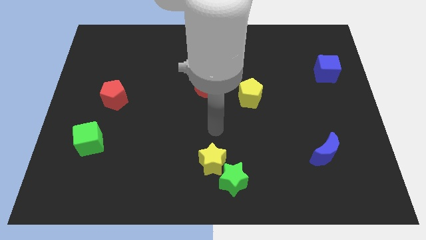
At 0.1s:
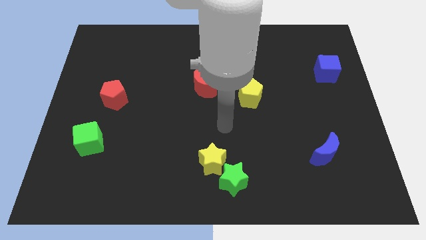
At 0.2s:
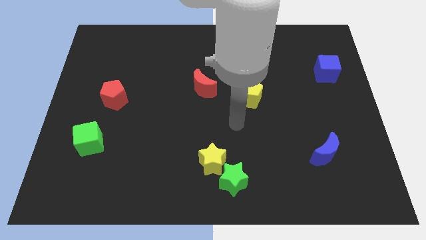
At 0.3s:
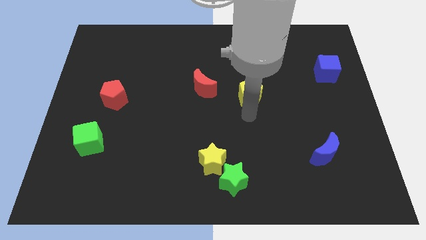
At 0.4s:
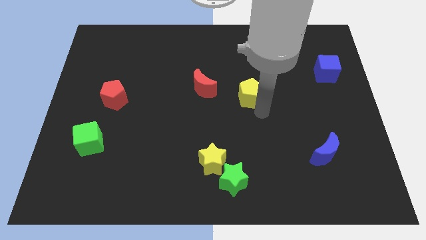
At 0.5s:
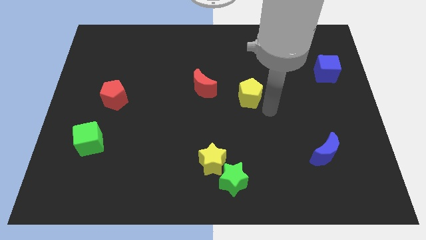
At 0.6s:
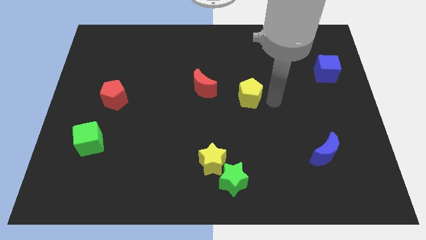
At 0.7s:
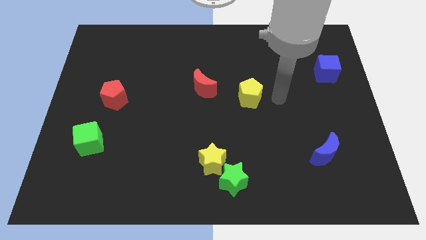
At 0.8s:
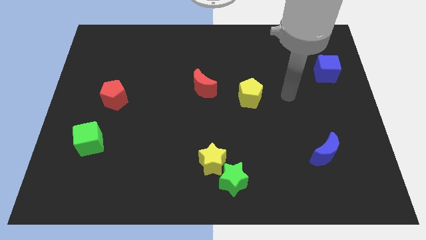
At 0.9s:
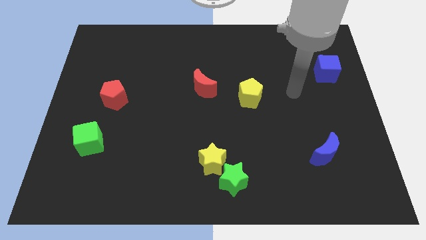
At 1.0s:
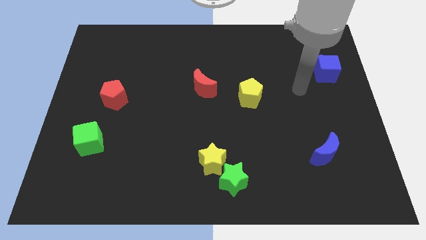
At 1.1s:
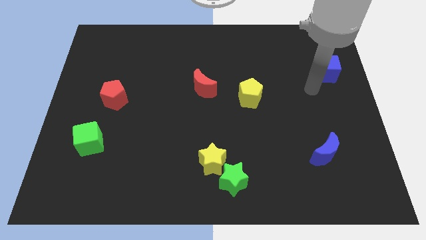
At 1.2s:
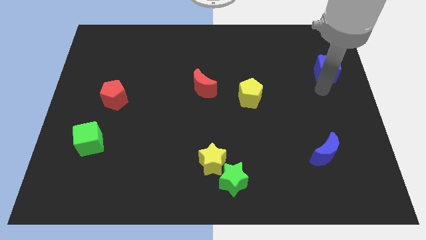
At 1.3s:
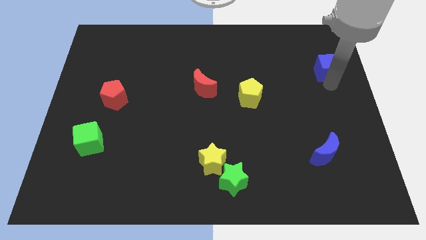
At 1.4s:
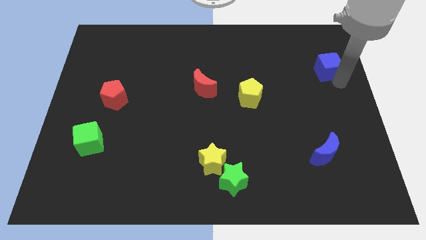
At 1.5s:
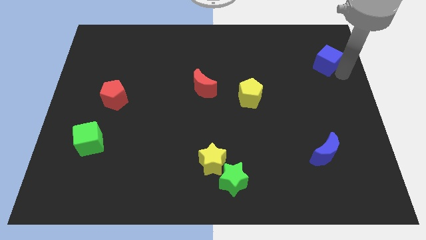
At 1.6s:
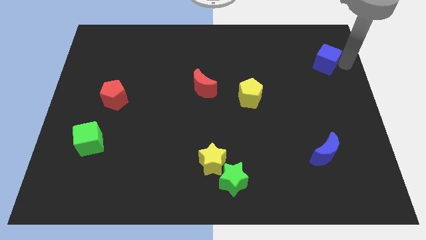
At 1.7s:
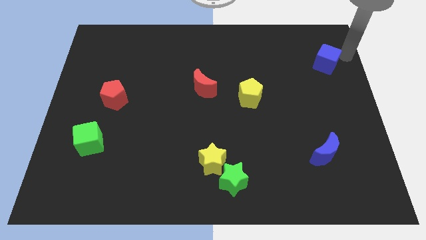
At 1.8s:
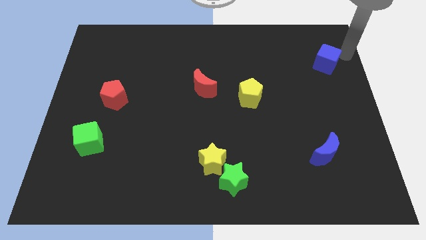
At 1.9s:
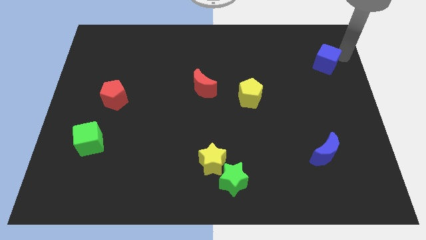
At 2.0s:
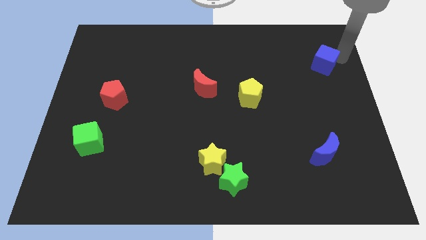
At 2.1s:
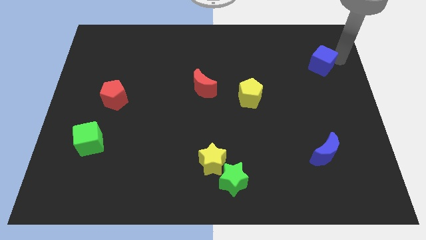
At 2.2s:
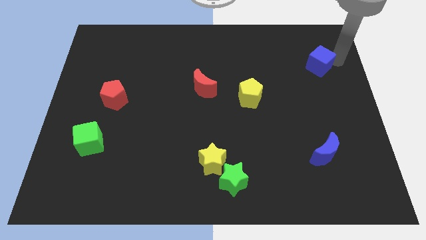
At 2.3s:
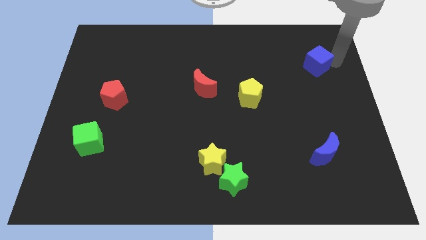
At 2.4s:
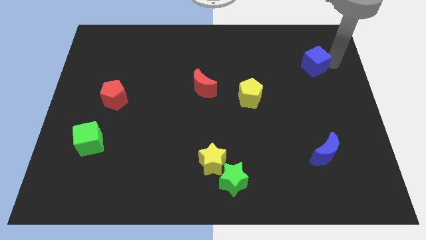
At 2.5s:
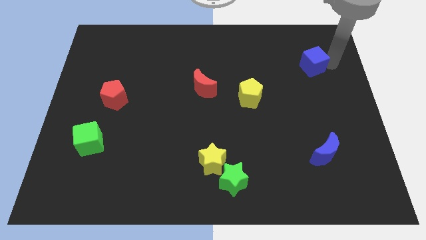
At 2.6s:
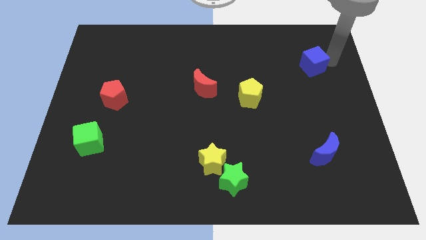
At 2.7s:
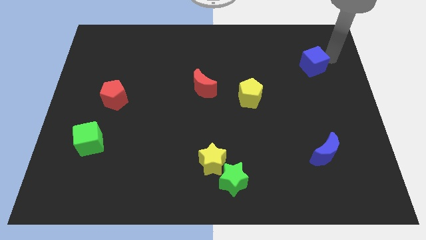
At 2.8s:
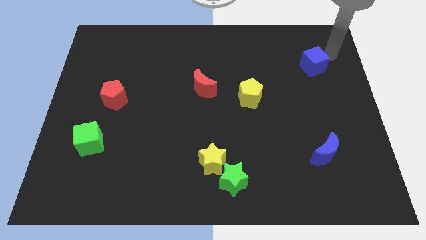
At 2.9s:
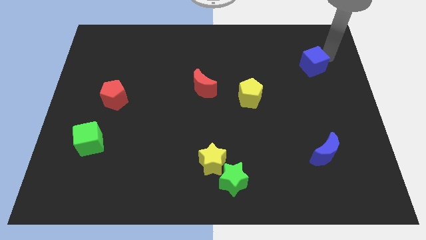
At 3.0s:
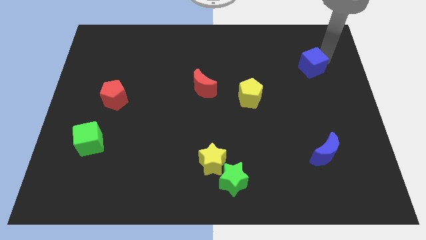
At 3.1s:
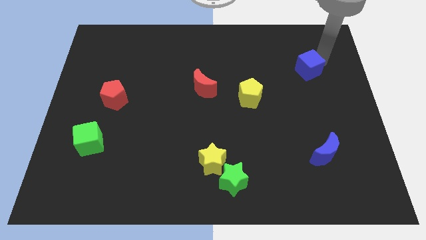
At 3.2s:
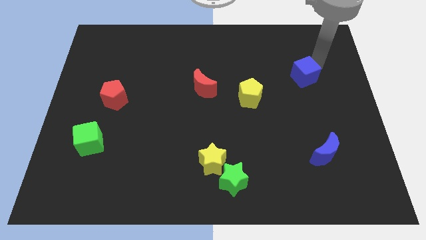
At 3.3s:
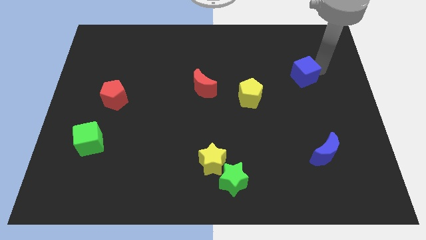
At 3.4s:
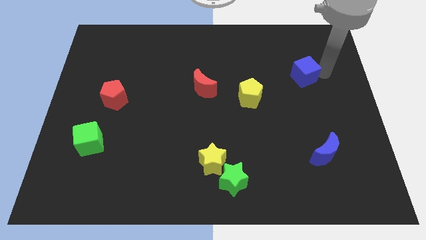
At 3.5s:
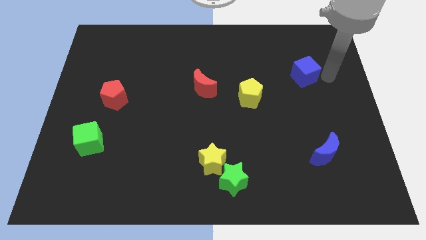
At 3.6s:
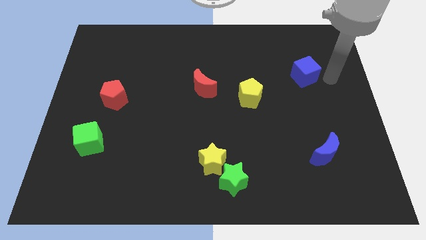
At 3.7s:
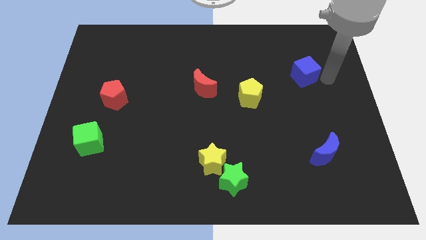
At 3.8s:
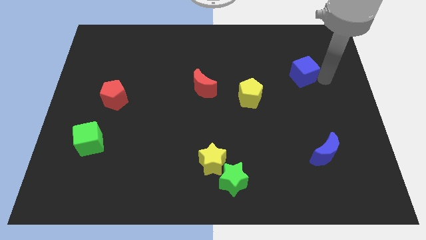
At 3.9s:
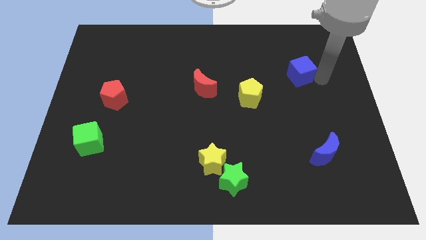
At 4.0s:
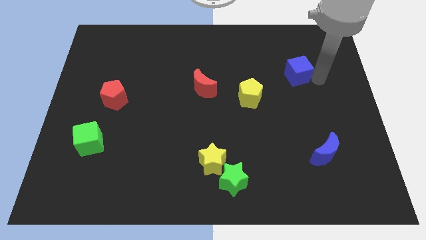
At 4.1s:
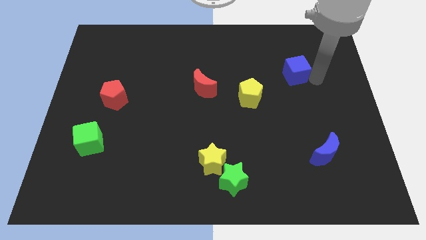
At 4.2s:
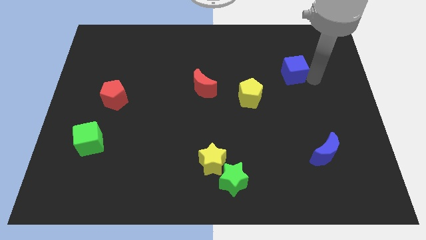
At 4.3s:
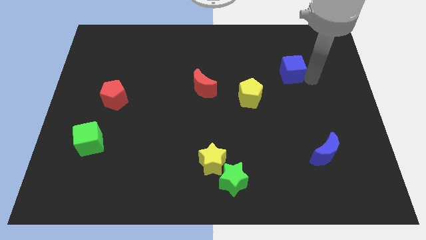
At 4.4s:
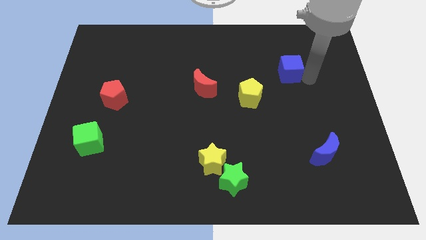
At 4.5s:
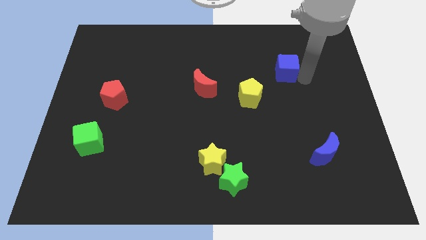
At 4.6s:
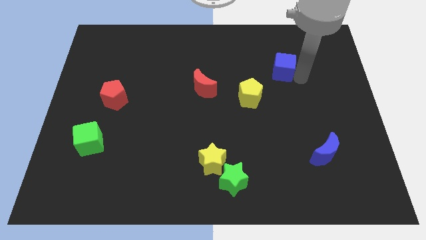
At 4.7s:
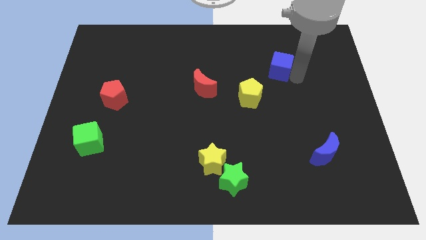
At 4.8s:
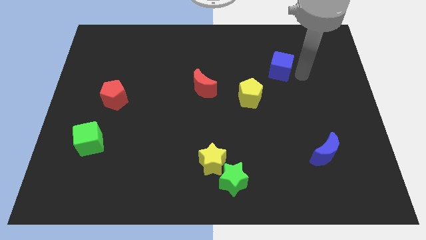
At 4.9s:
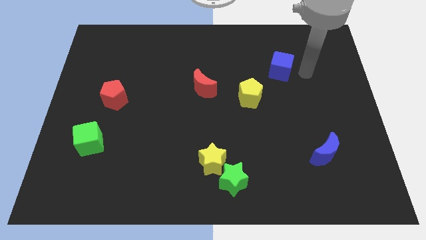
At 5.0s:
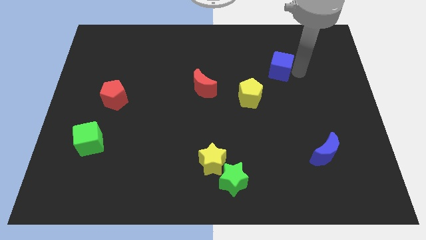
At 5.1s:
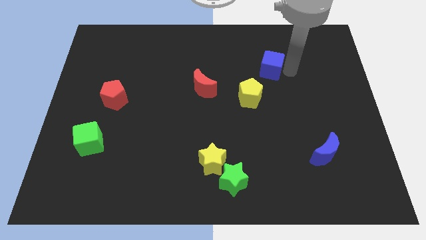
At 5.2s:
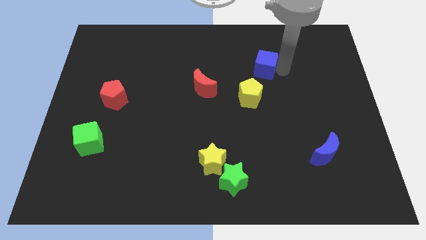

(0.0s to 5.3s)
slide the blue cube to the top of the yellow pentagon

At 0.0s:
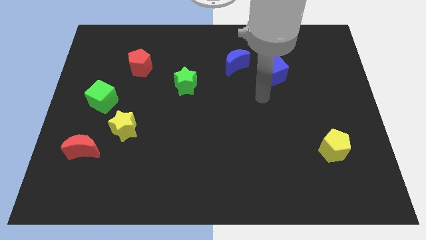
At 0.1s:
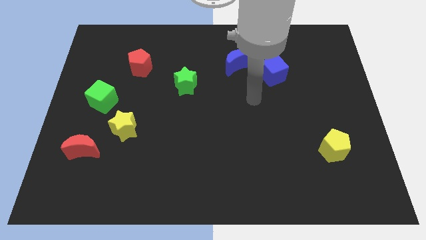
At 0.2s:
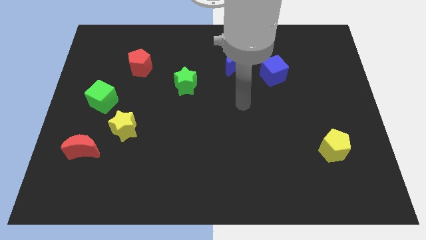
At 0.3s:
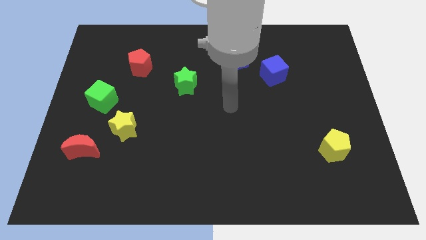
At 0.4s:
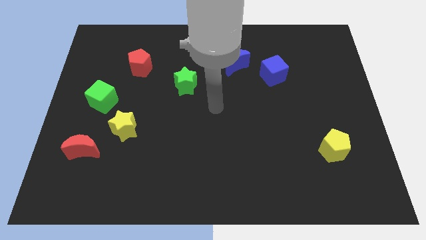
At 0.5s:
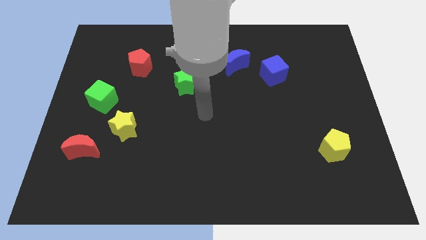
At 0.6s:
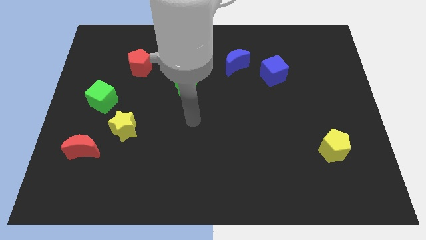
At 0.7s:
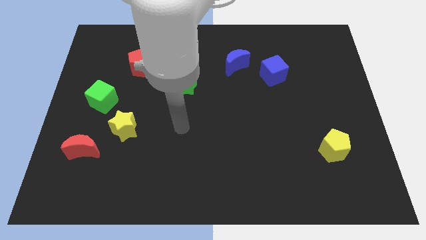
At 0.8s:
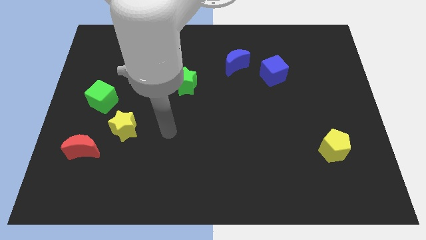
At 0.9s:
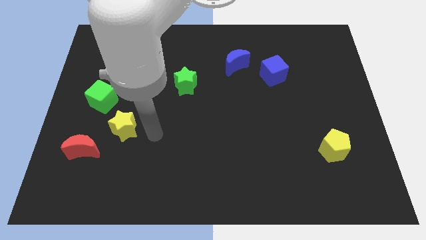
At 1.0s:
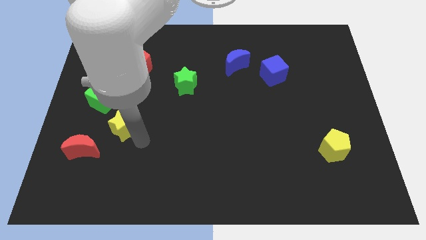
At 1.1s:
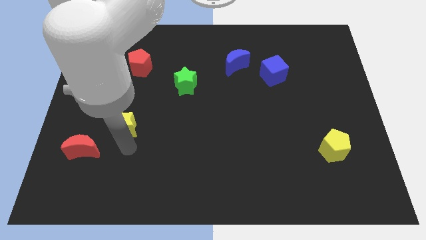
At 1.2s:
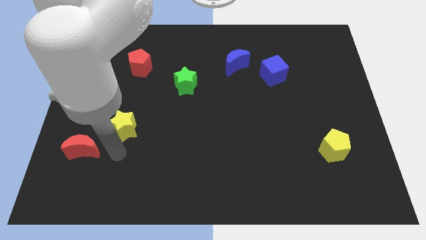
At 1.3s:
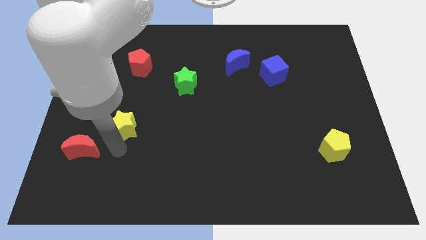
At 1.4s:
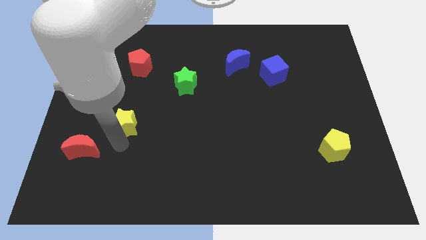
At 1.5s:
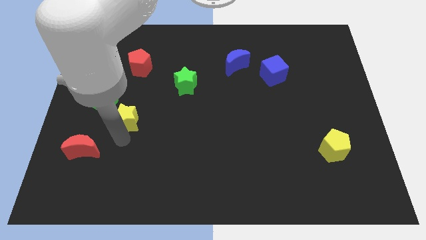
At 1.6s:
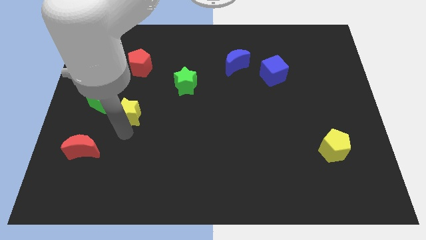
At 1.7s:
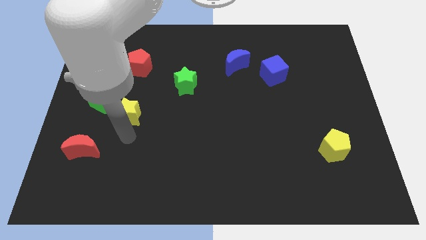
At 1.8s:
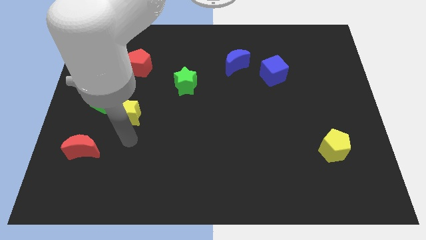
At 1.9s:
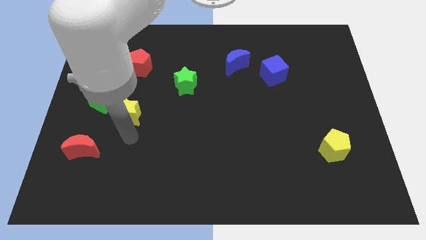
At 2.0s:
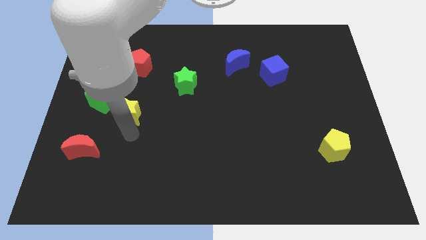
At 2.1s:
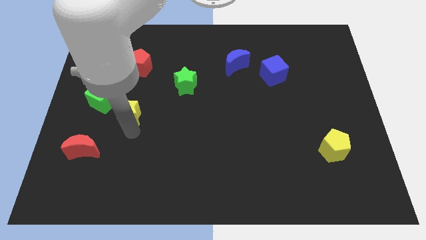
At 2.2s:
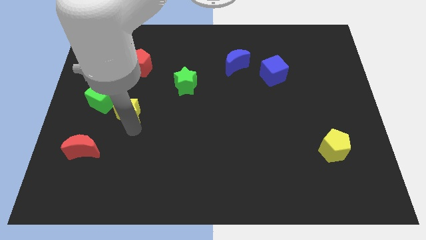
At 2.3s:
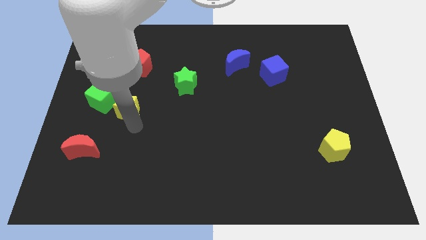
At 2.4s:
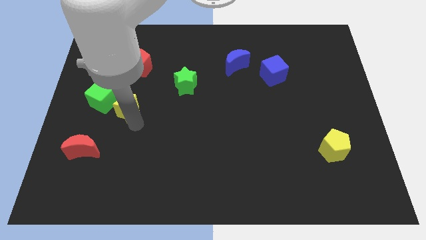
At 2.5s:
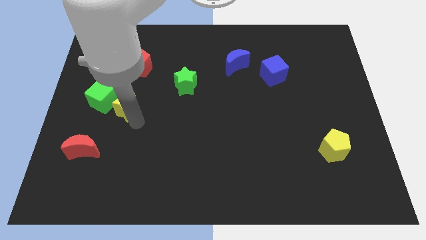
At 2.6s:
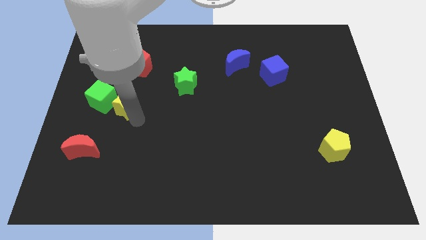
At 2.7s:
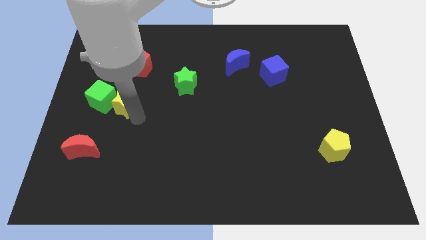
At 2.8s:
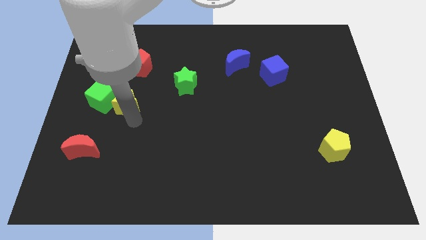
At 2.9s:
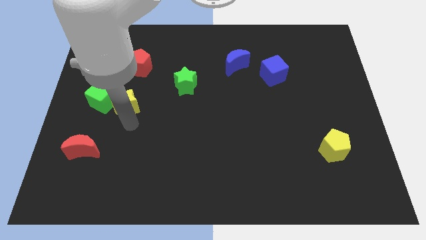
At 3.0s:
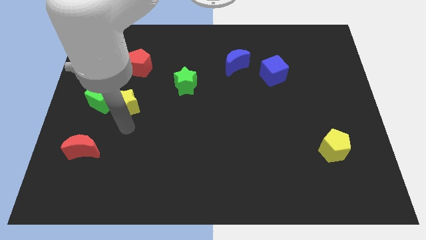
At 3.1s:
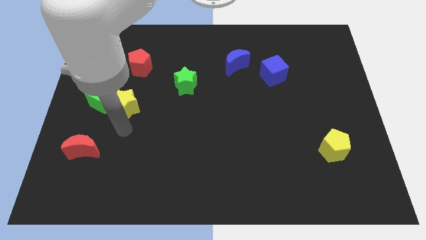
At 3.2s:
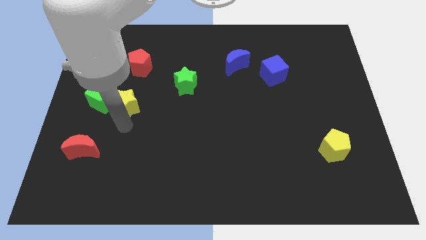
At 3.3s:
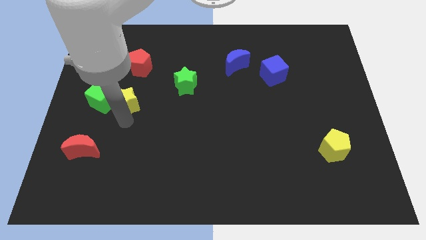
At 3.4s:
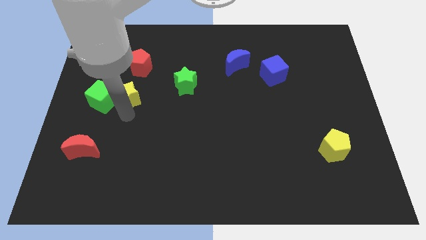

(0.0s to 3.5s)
move the yellow star to the top right side of the green cube
